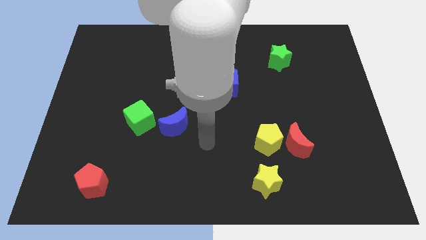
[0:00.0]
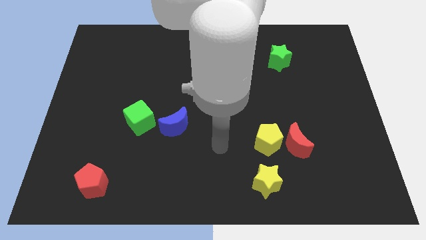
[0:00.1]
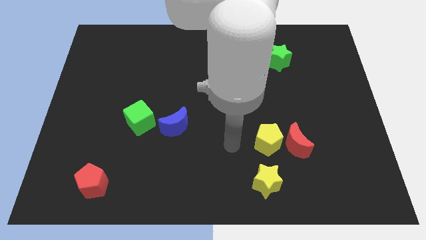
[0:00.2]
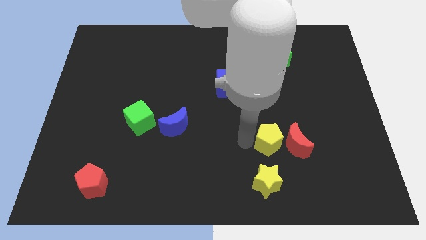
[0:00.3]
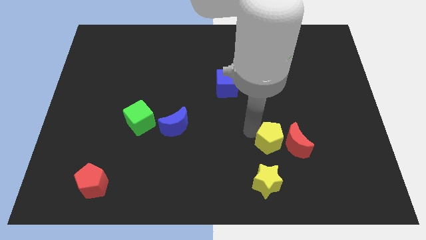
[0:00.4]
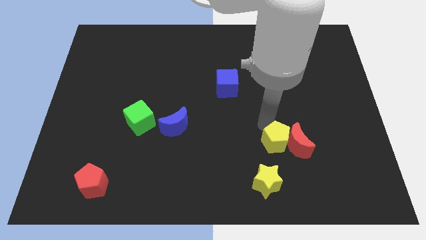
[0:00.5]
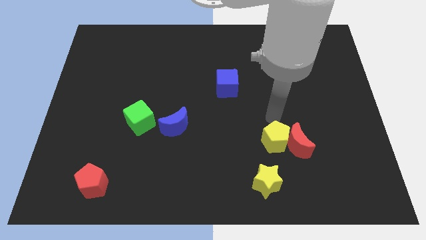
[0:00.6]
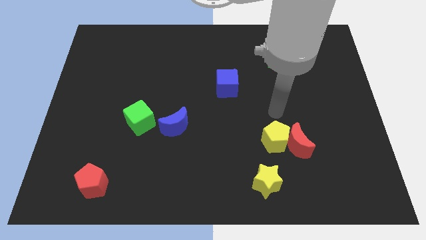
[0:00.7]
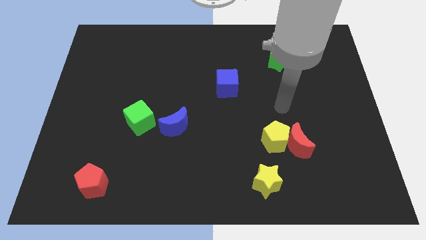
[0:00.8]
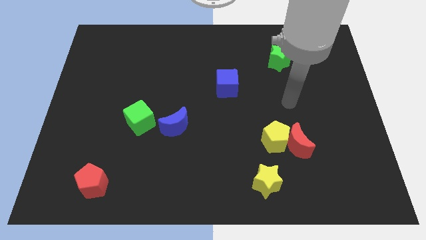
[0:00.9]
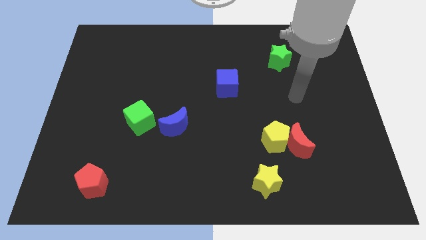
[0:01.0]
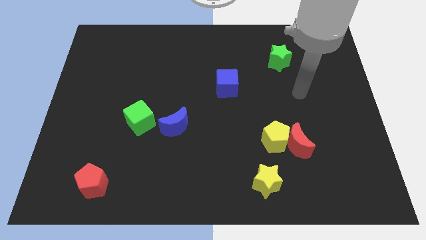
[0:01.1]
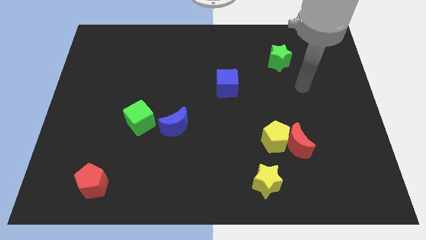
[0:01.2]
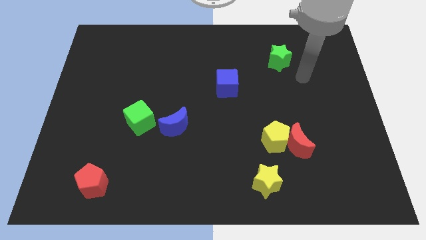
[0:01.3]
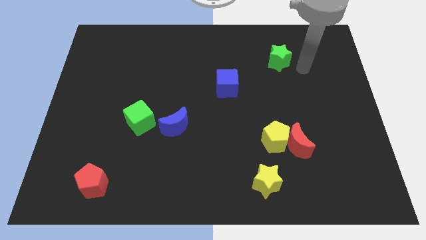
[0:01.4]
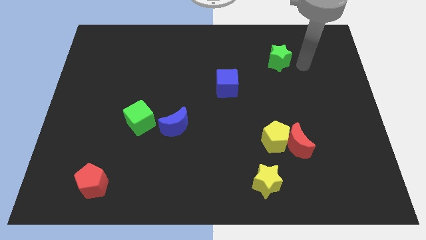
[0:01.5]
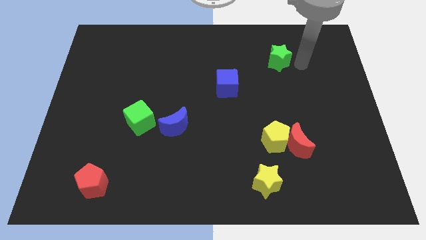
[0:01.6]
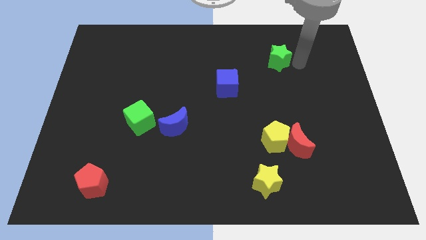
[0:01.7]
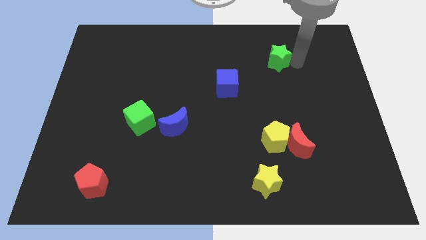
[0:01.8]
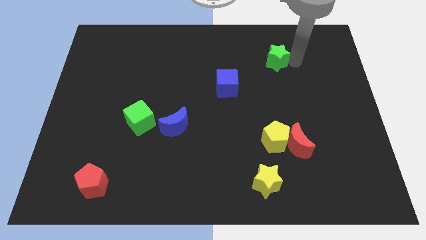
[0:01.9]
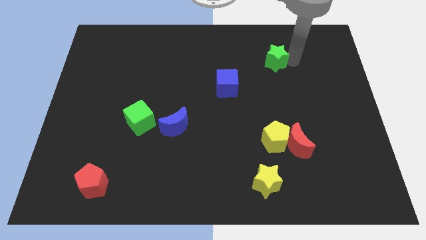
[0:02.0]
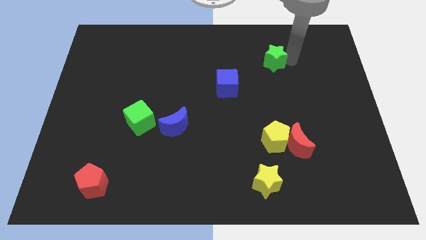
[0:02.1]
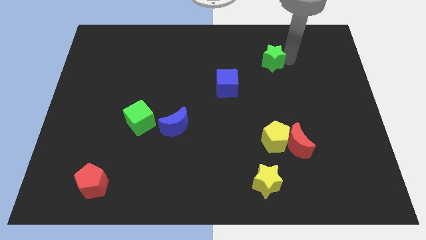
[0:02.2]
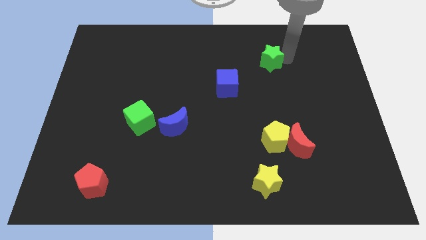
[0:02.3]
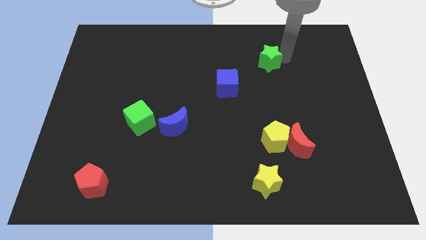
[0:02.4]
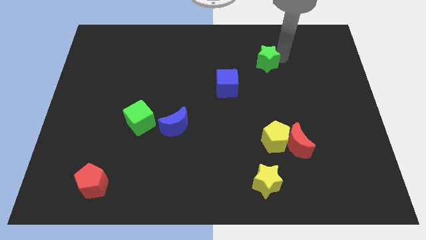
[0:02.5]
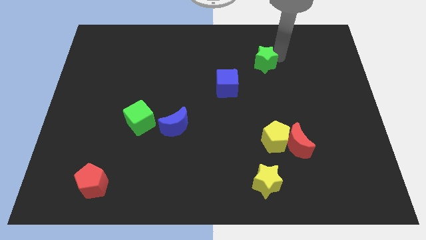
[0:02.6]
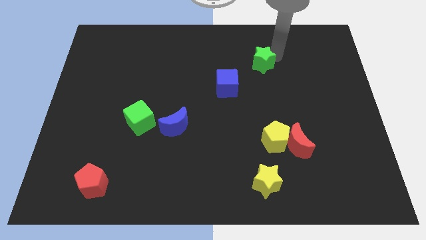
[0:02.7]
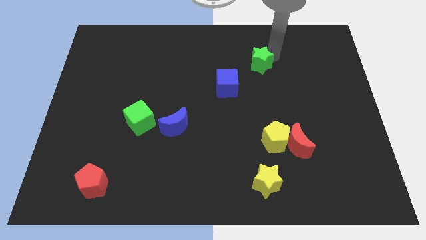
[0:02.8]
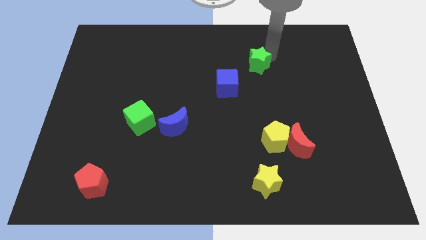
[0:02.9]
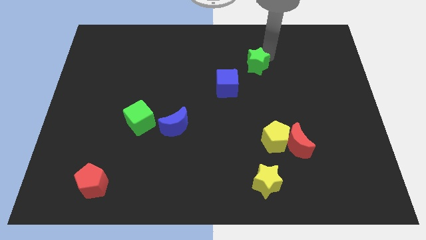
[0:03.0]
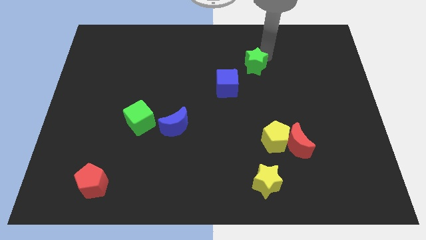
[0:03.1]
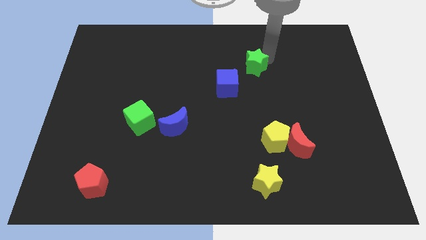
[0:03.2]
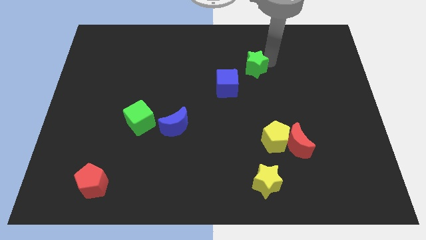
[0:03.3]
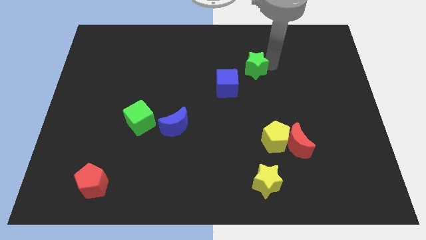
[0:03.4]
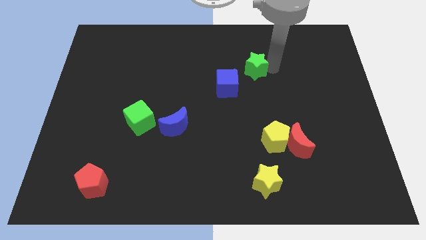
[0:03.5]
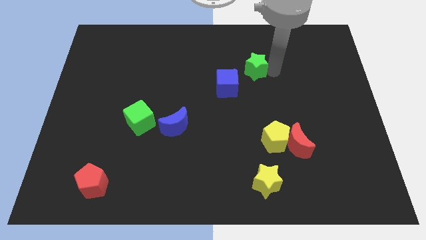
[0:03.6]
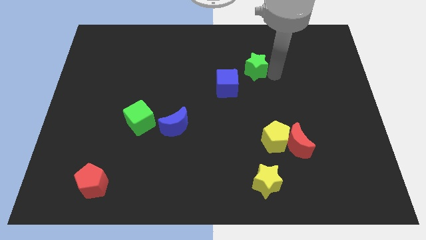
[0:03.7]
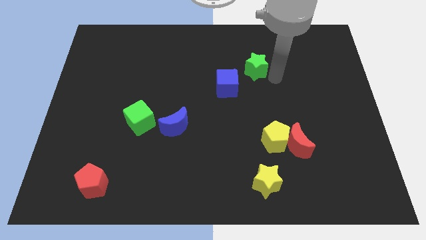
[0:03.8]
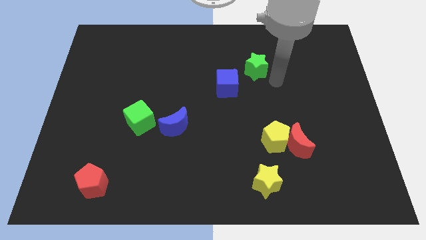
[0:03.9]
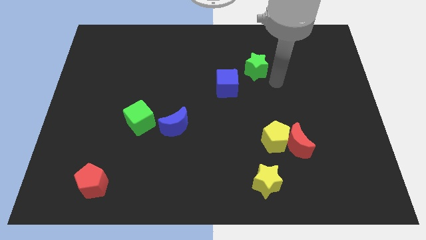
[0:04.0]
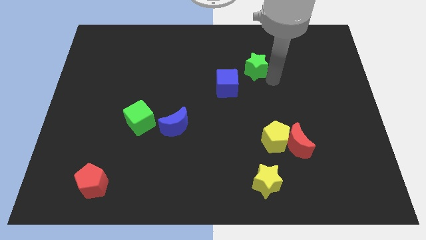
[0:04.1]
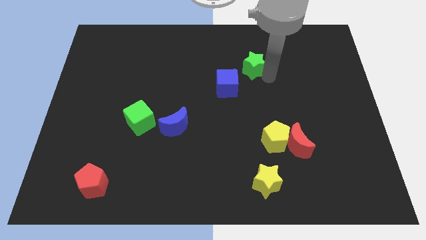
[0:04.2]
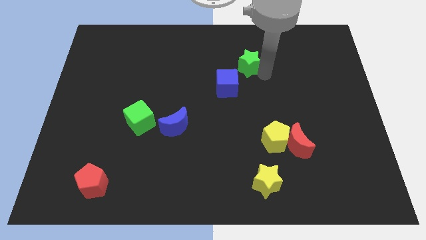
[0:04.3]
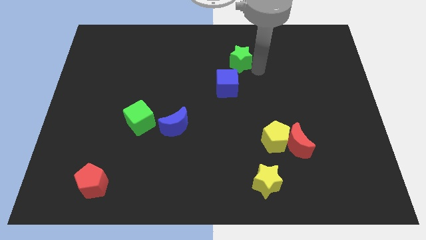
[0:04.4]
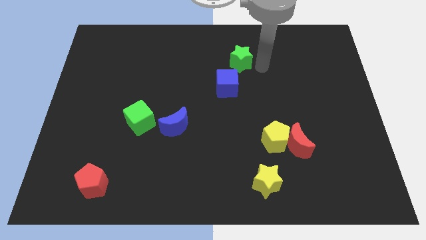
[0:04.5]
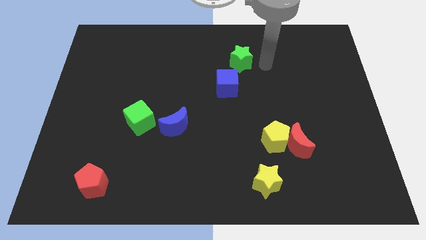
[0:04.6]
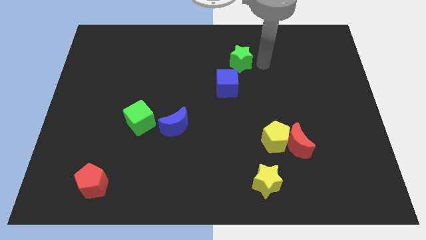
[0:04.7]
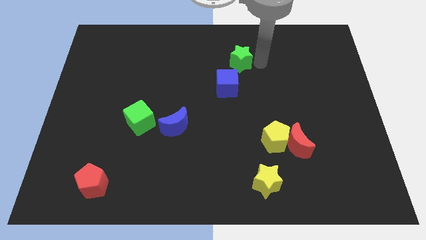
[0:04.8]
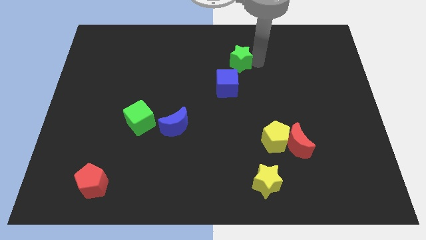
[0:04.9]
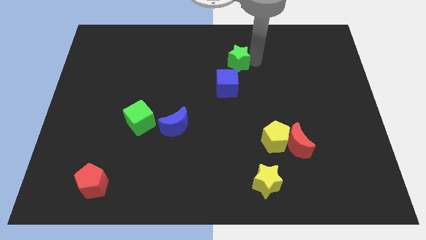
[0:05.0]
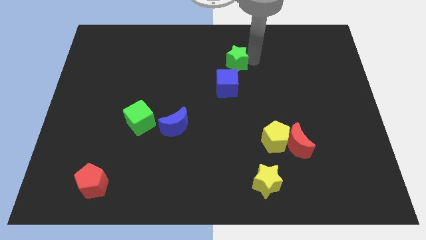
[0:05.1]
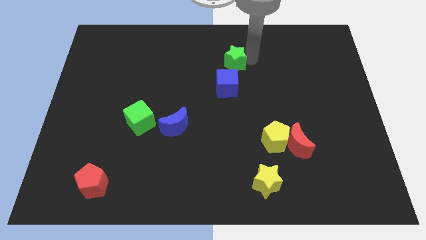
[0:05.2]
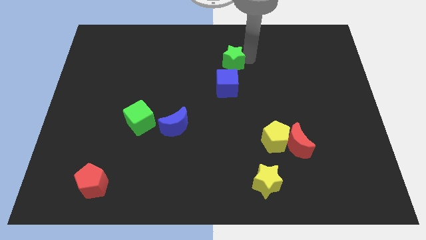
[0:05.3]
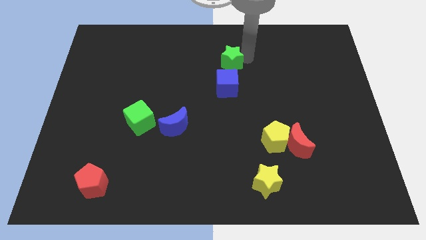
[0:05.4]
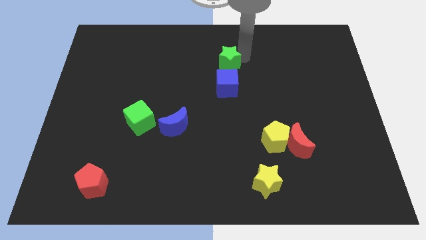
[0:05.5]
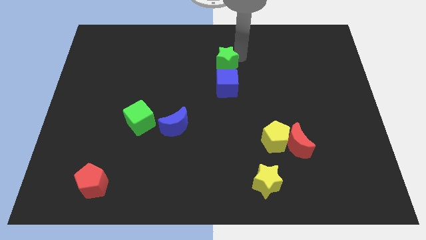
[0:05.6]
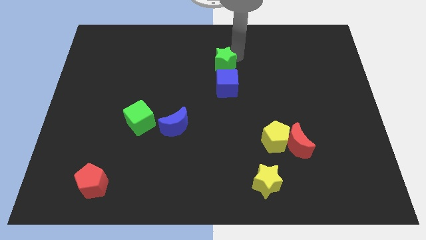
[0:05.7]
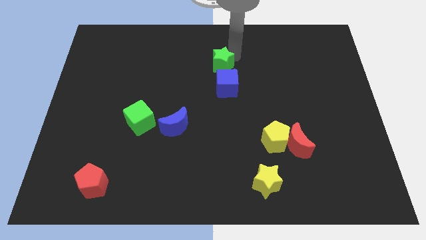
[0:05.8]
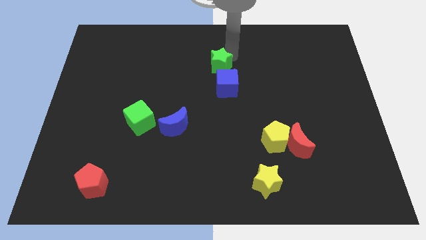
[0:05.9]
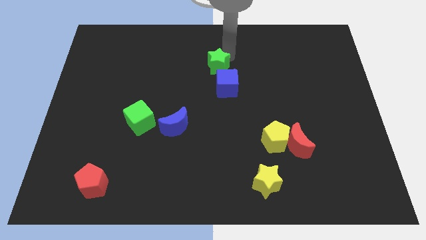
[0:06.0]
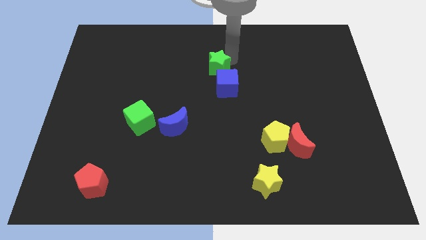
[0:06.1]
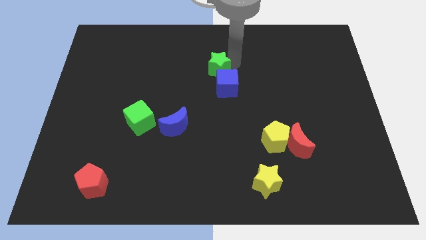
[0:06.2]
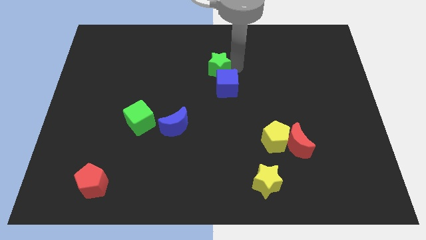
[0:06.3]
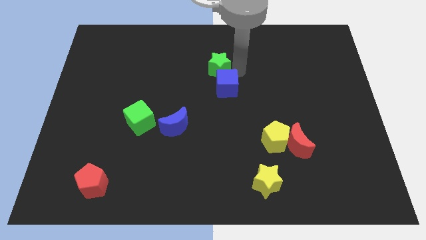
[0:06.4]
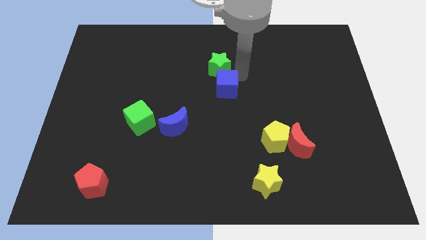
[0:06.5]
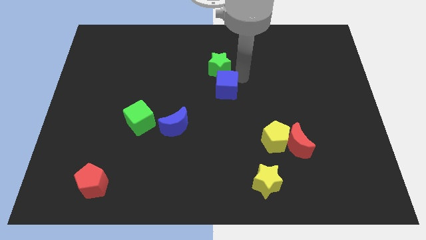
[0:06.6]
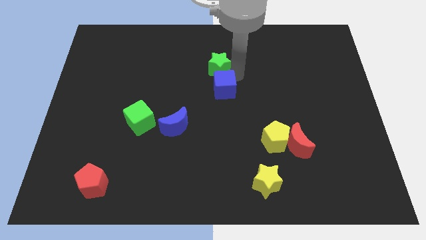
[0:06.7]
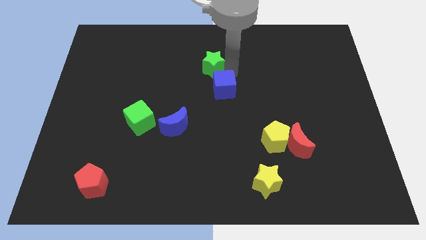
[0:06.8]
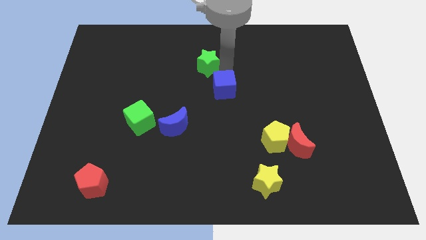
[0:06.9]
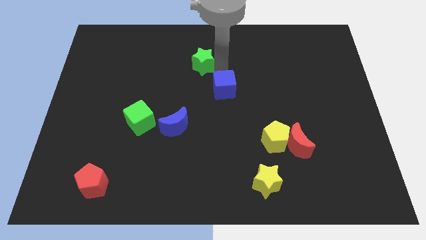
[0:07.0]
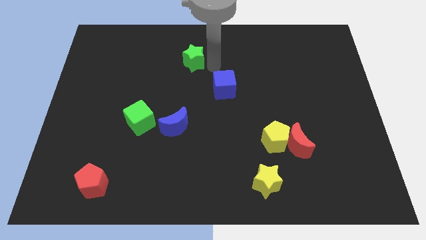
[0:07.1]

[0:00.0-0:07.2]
slide the green star to the left

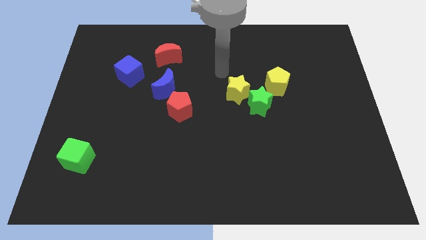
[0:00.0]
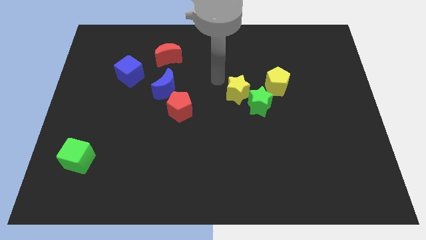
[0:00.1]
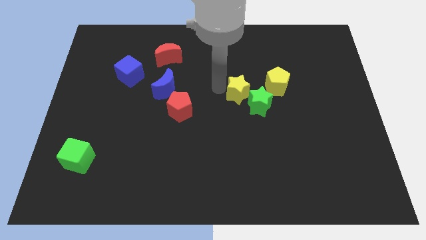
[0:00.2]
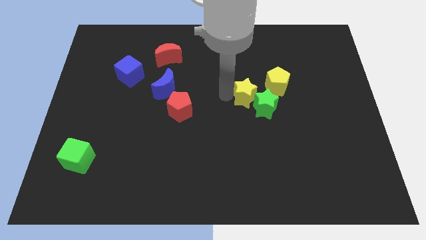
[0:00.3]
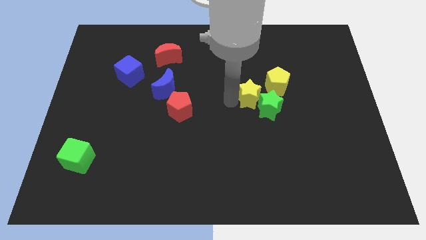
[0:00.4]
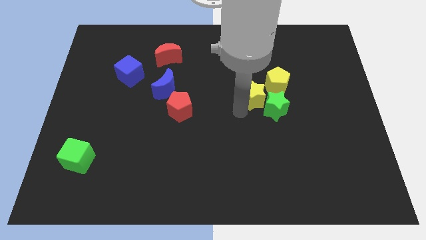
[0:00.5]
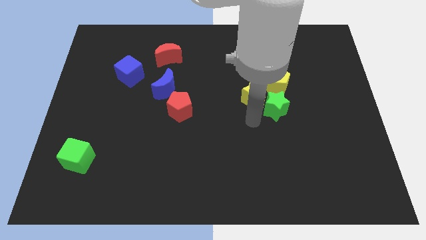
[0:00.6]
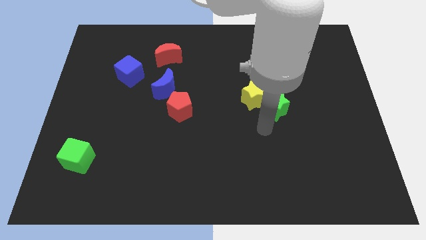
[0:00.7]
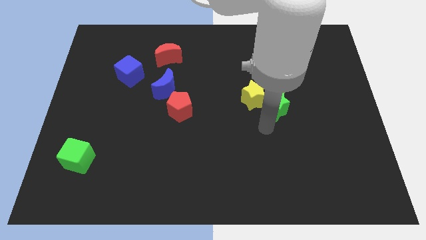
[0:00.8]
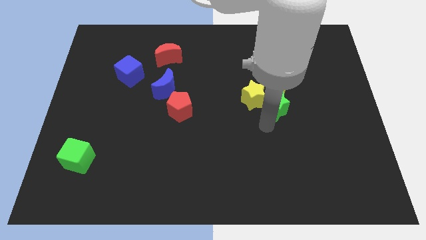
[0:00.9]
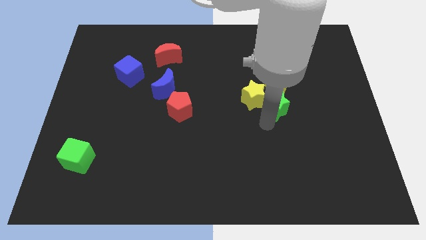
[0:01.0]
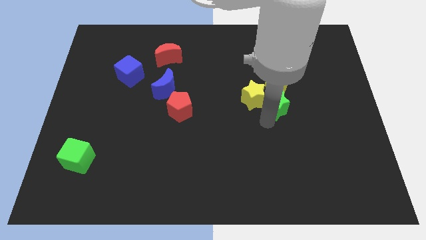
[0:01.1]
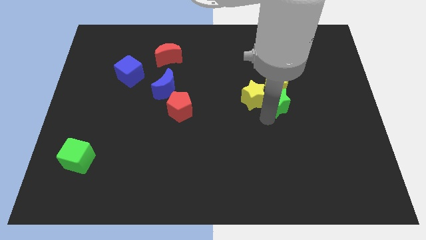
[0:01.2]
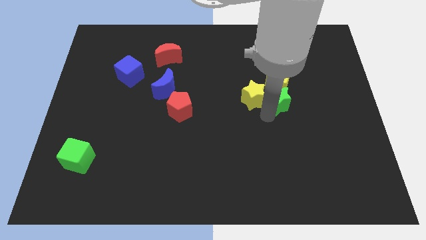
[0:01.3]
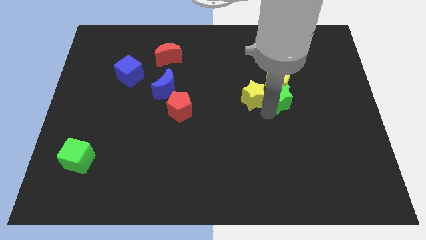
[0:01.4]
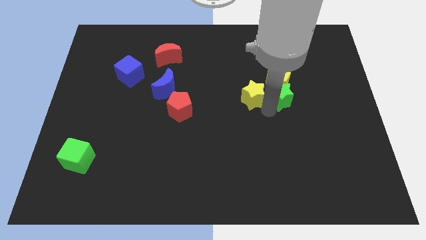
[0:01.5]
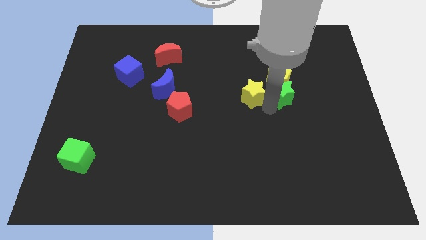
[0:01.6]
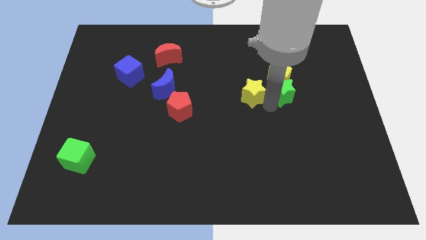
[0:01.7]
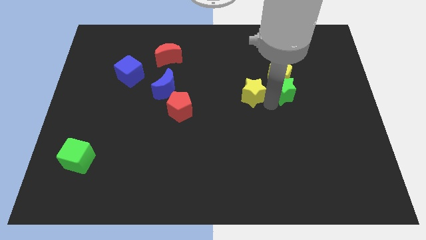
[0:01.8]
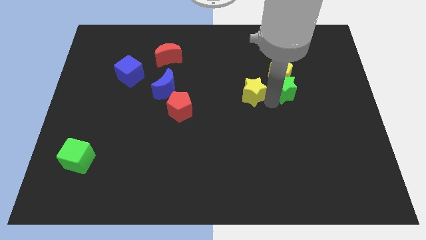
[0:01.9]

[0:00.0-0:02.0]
push the green star up and then to the right somewhat
